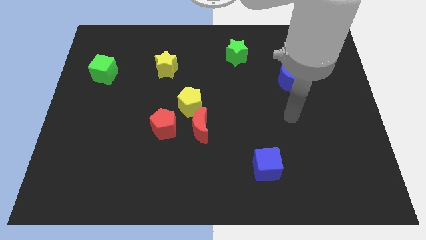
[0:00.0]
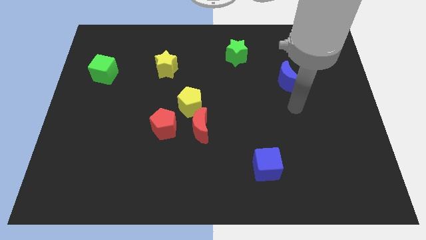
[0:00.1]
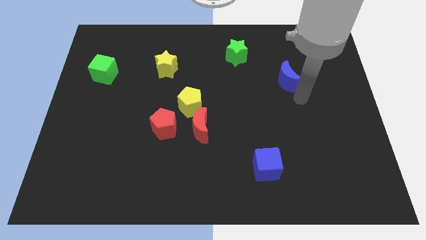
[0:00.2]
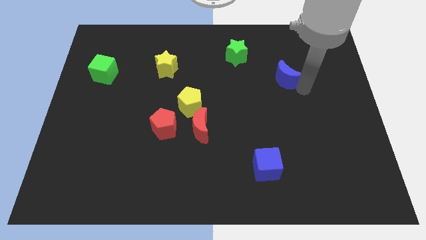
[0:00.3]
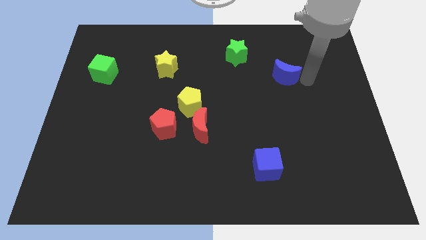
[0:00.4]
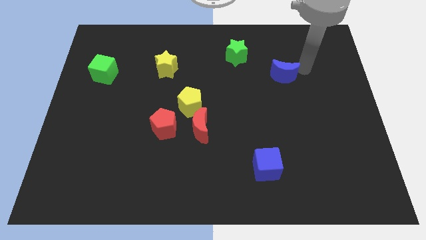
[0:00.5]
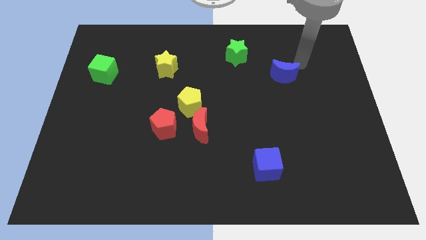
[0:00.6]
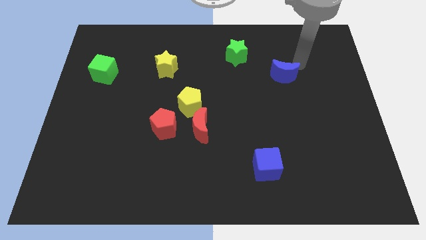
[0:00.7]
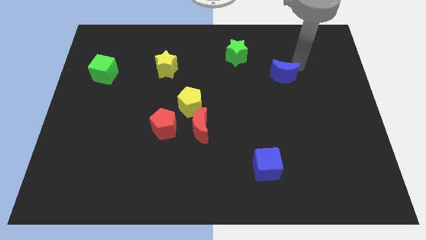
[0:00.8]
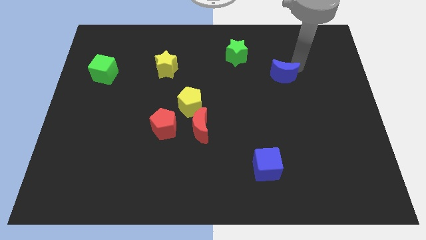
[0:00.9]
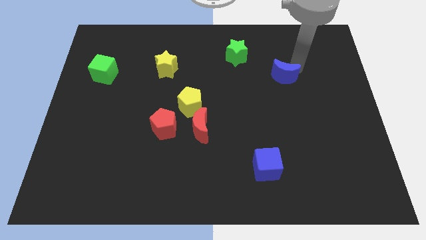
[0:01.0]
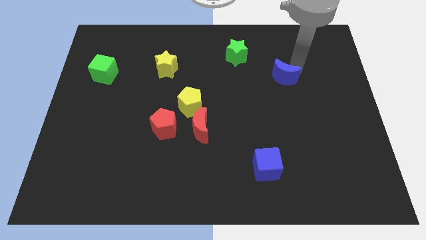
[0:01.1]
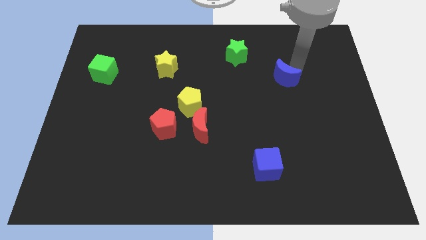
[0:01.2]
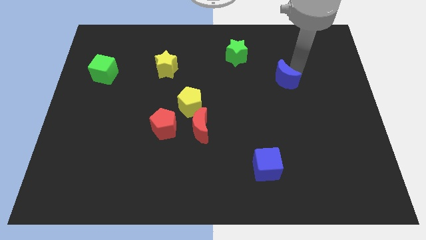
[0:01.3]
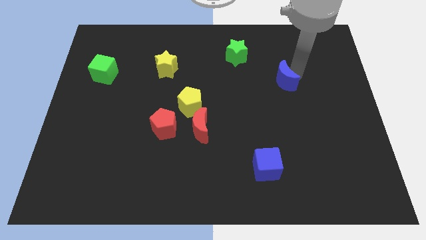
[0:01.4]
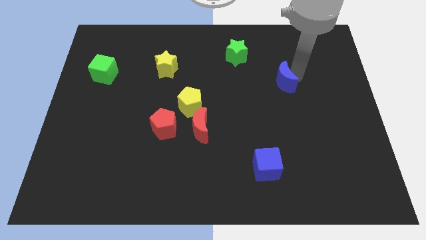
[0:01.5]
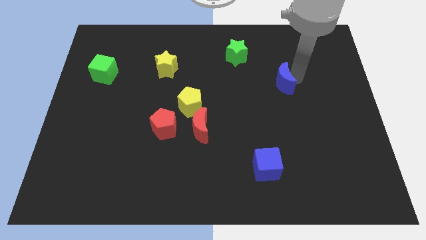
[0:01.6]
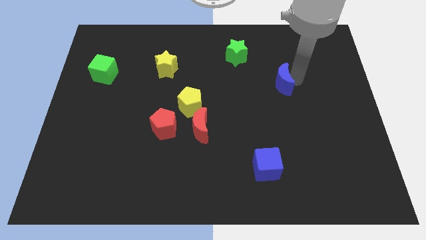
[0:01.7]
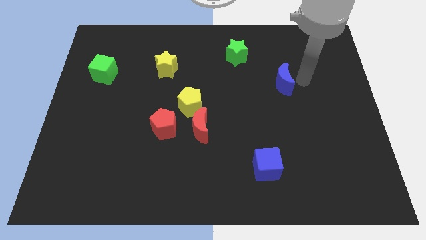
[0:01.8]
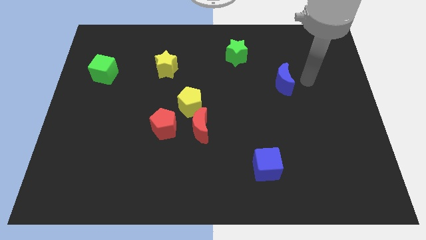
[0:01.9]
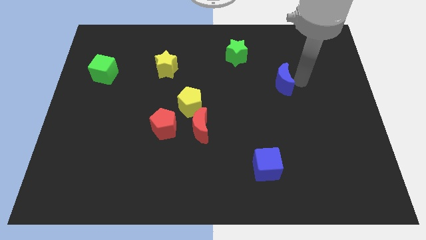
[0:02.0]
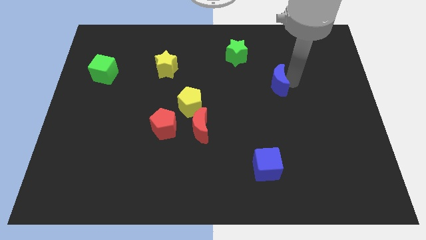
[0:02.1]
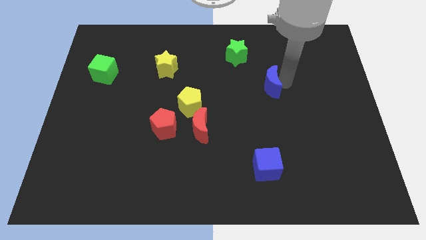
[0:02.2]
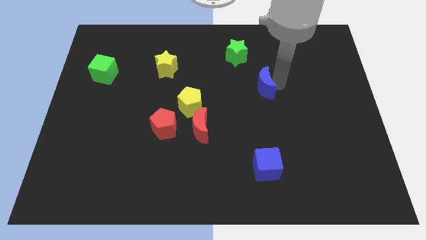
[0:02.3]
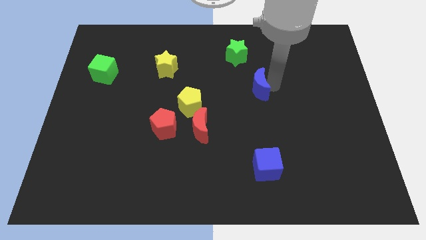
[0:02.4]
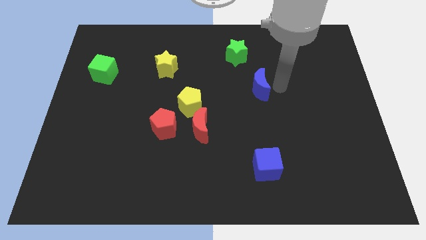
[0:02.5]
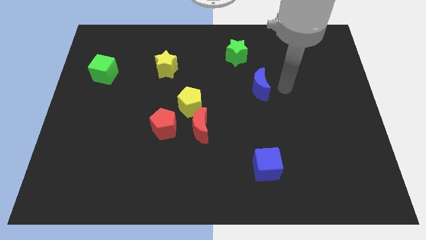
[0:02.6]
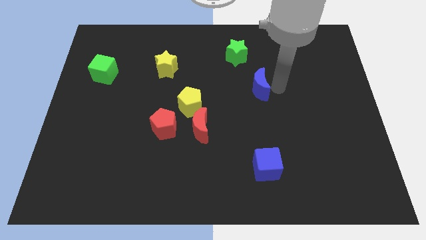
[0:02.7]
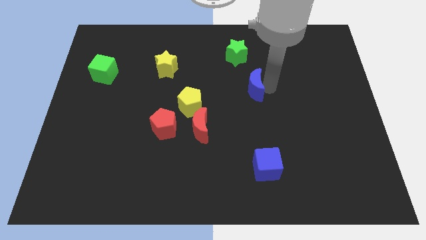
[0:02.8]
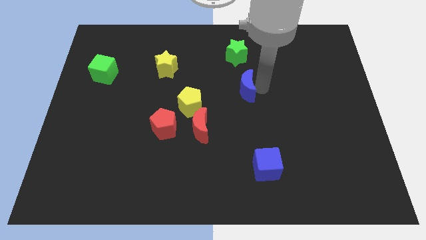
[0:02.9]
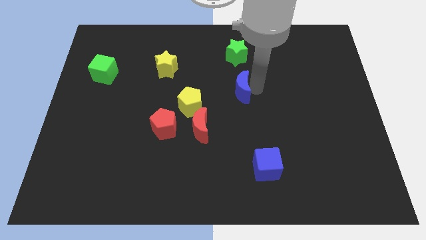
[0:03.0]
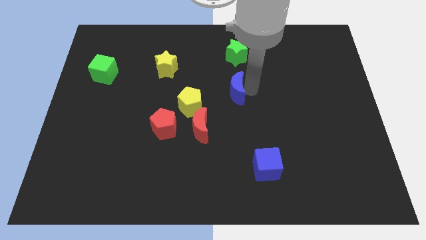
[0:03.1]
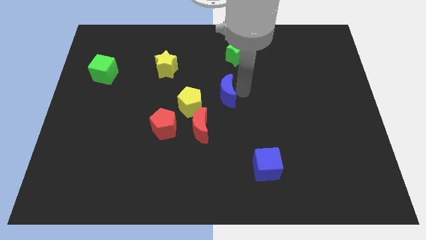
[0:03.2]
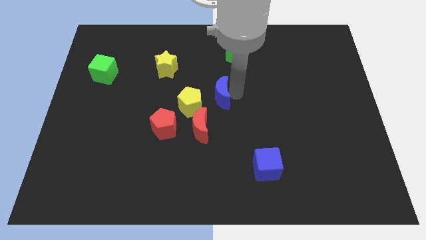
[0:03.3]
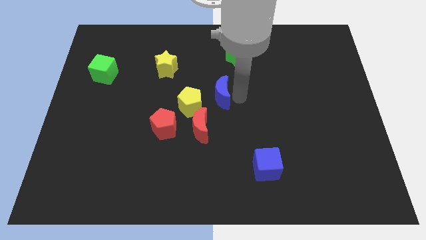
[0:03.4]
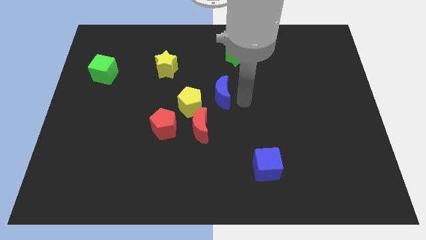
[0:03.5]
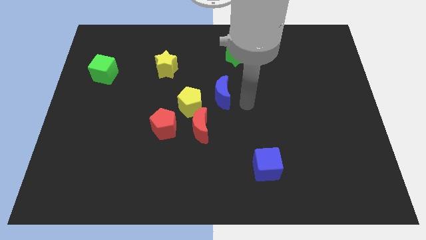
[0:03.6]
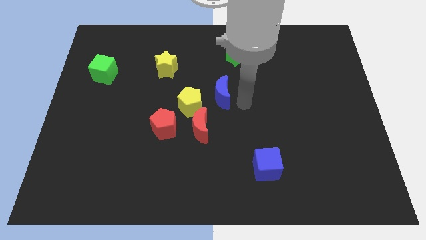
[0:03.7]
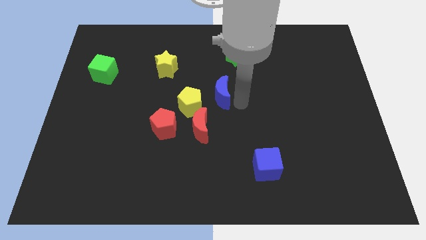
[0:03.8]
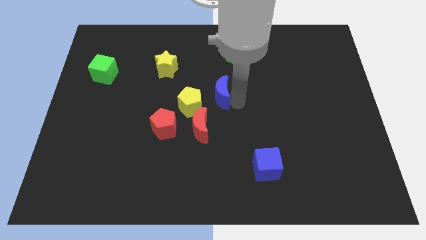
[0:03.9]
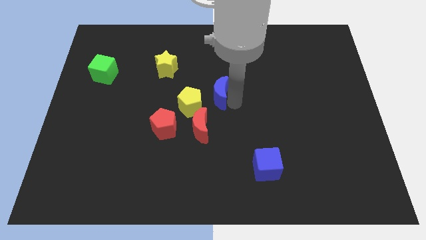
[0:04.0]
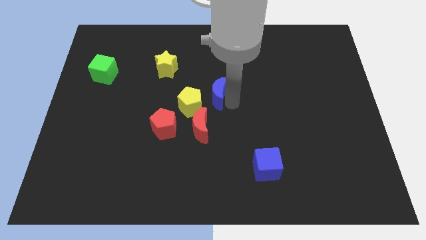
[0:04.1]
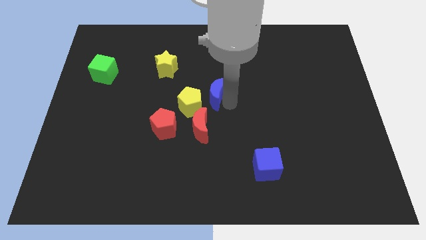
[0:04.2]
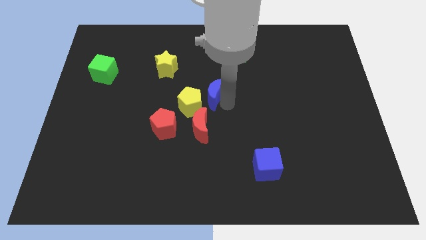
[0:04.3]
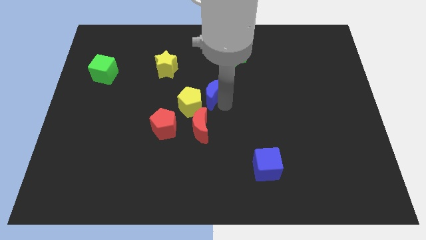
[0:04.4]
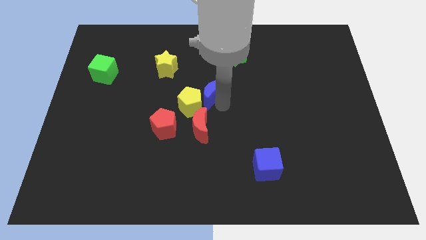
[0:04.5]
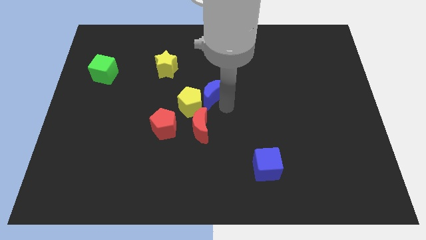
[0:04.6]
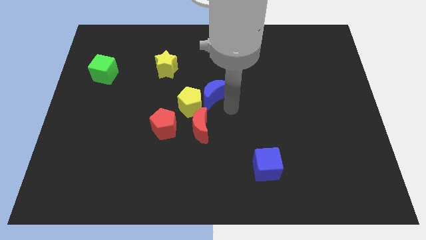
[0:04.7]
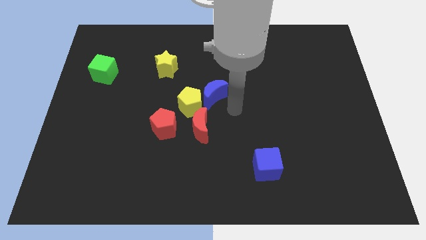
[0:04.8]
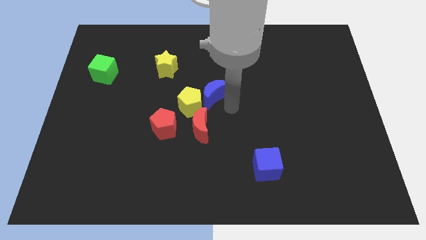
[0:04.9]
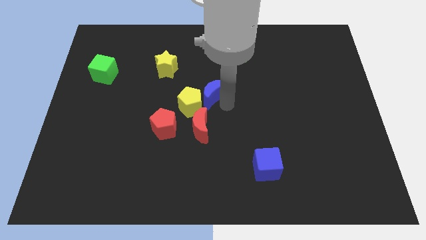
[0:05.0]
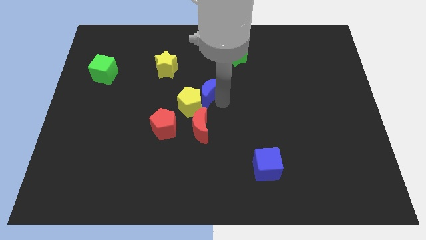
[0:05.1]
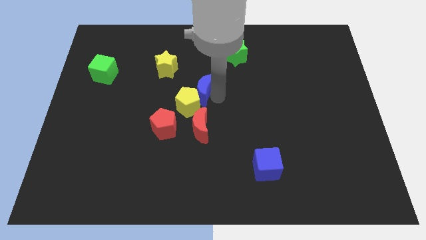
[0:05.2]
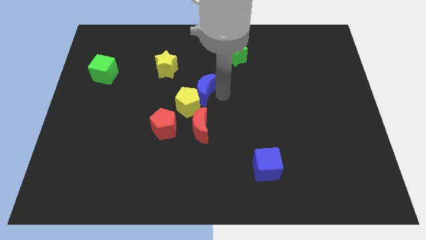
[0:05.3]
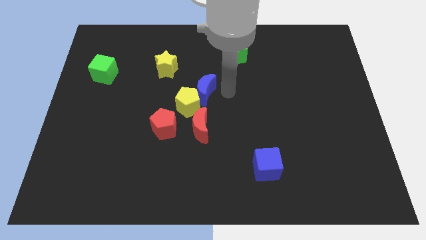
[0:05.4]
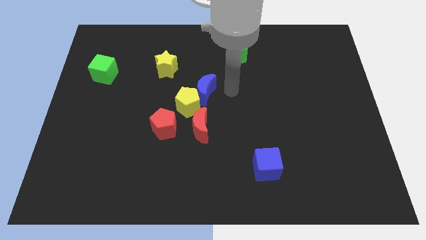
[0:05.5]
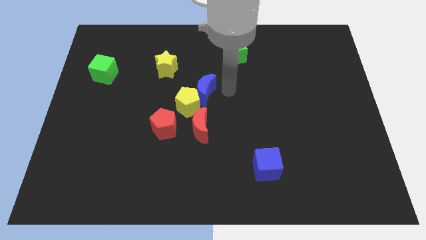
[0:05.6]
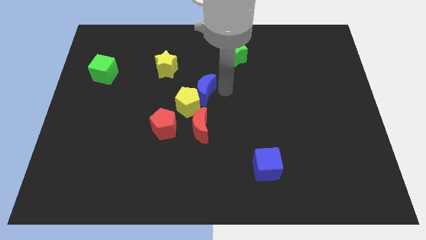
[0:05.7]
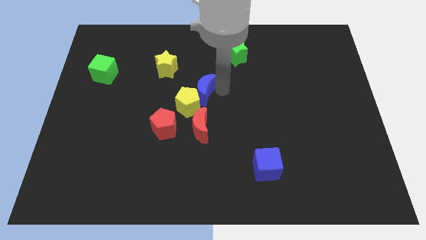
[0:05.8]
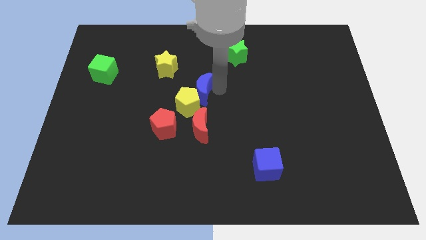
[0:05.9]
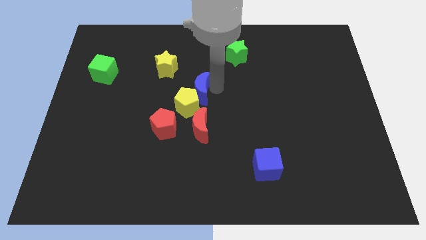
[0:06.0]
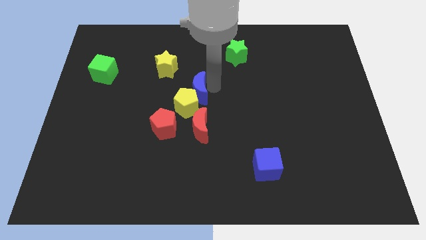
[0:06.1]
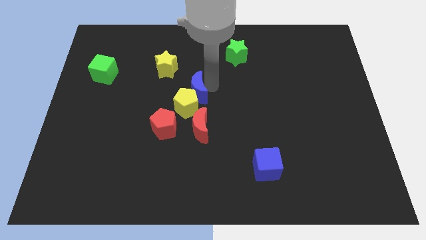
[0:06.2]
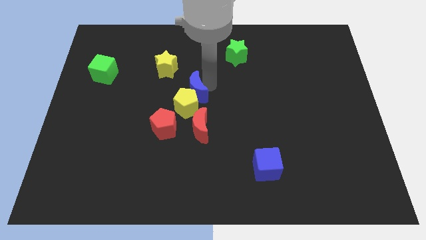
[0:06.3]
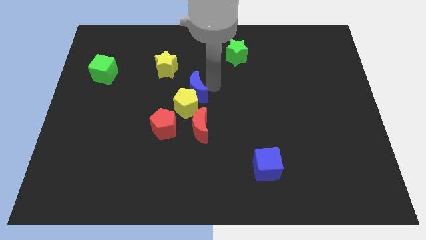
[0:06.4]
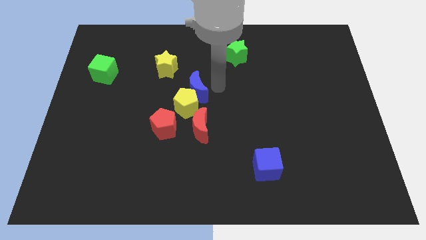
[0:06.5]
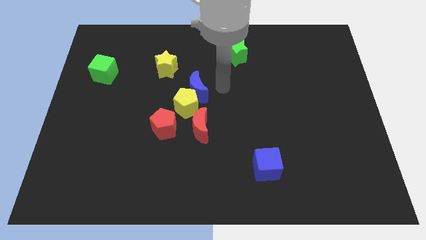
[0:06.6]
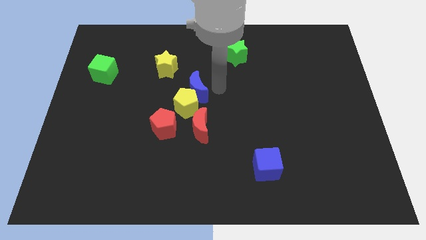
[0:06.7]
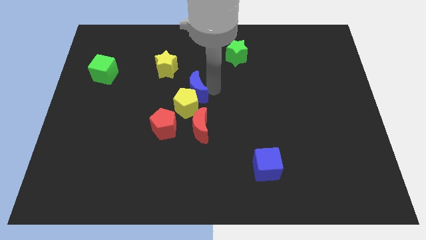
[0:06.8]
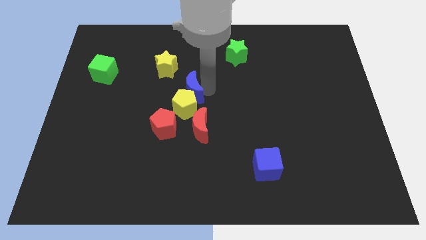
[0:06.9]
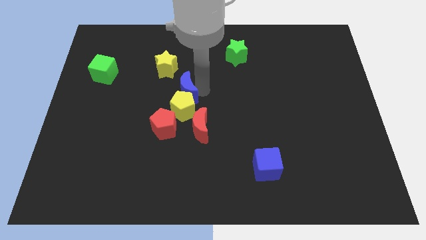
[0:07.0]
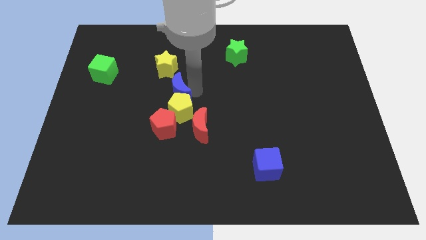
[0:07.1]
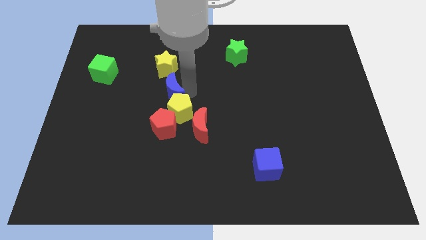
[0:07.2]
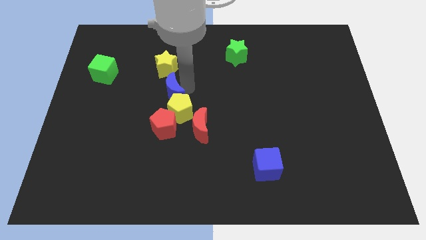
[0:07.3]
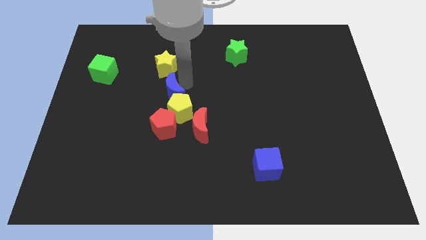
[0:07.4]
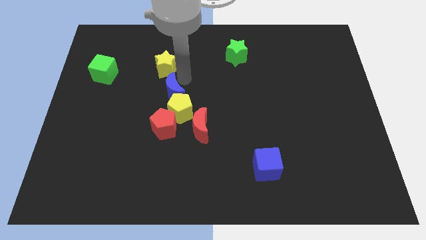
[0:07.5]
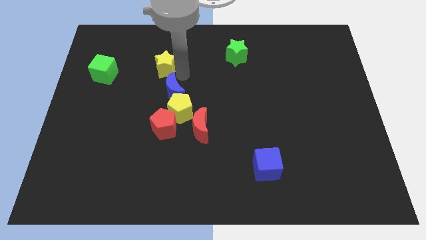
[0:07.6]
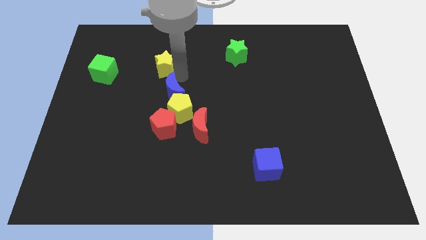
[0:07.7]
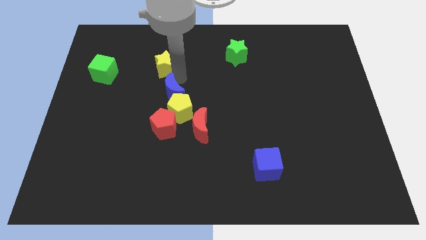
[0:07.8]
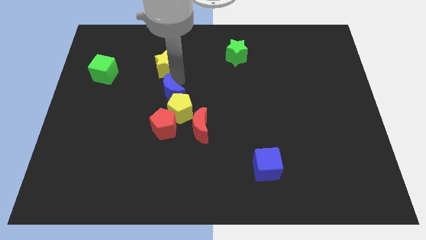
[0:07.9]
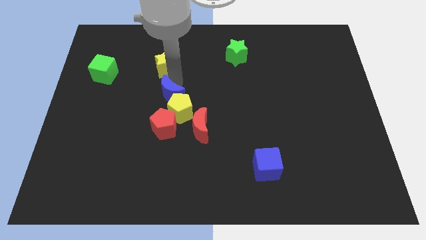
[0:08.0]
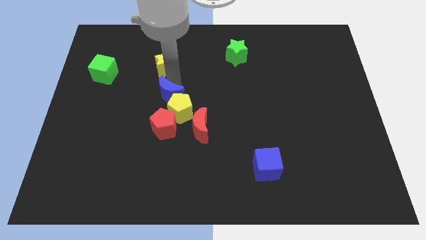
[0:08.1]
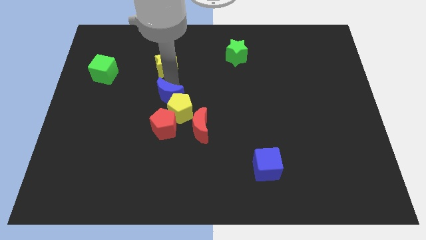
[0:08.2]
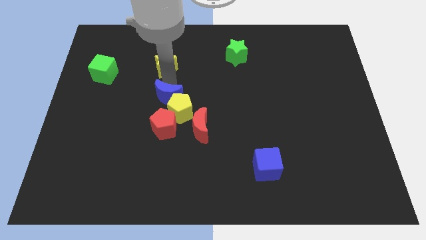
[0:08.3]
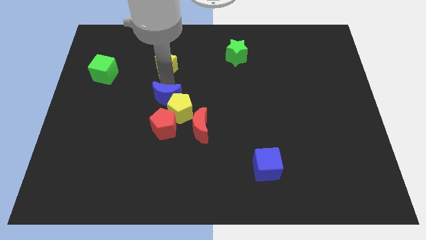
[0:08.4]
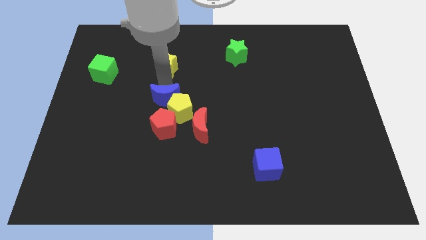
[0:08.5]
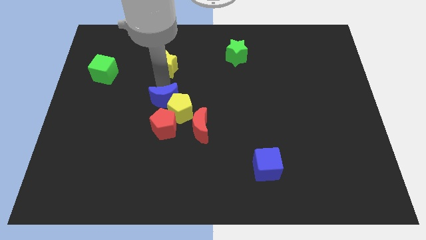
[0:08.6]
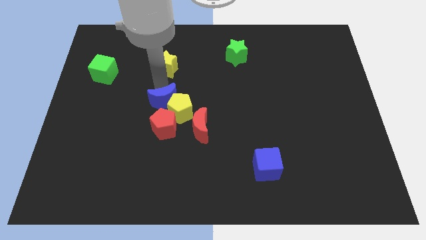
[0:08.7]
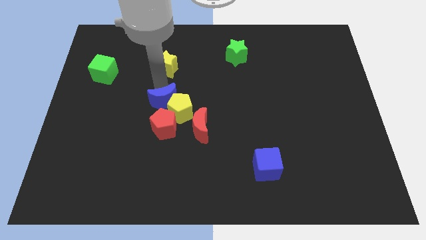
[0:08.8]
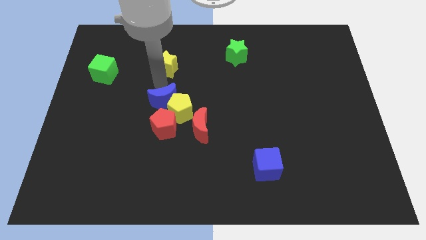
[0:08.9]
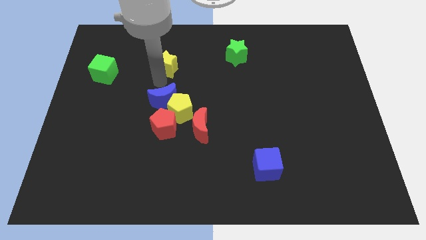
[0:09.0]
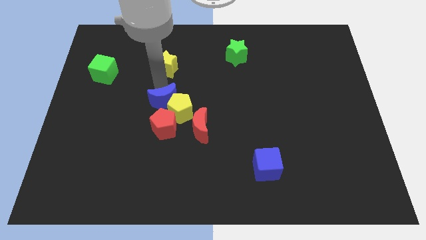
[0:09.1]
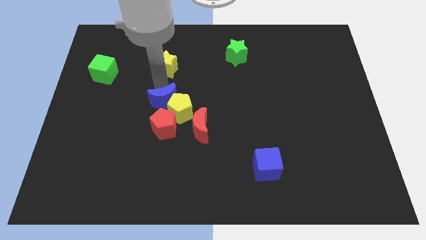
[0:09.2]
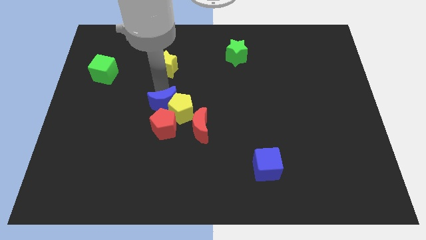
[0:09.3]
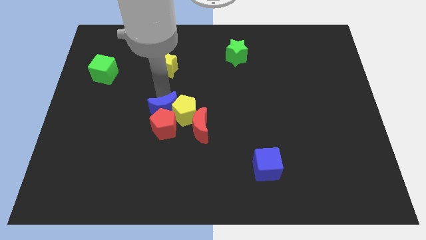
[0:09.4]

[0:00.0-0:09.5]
move the blue moon to the red pentagon
